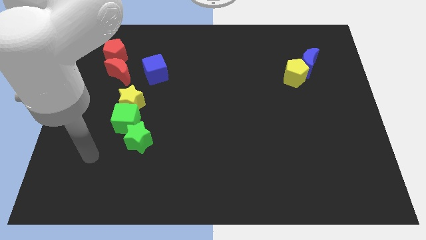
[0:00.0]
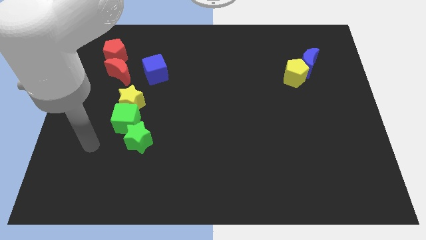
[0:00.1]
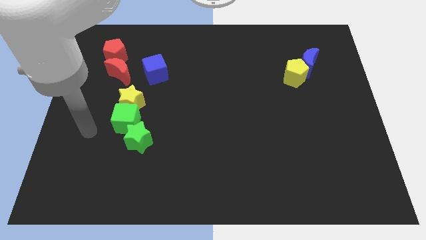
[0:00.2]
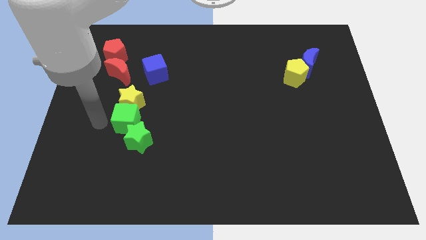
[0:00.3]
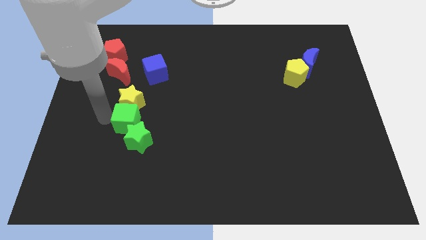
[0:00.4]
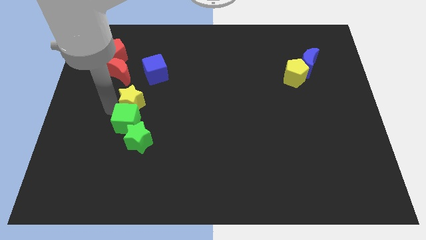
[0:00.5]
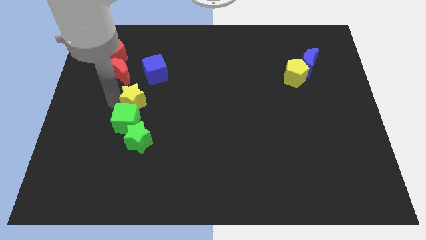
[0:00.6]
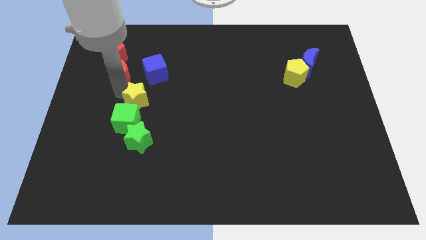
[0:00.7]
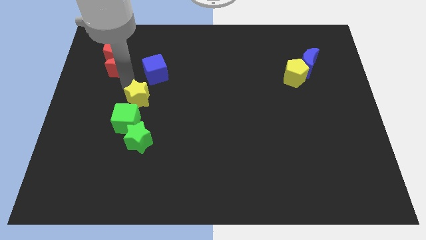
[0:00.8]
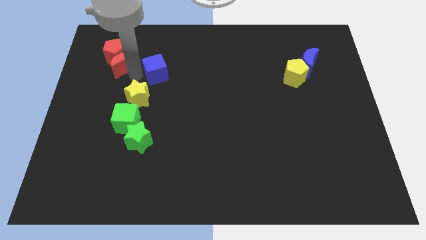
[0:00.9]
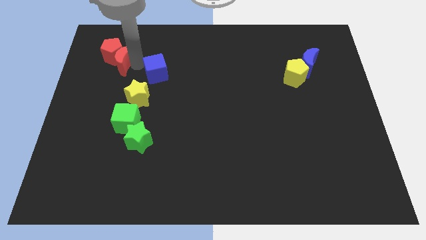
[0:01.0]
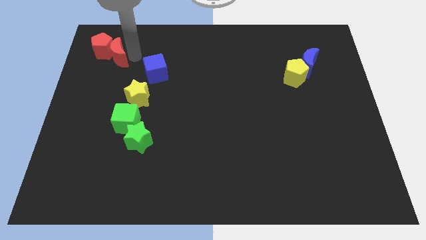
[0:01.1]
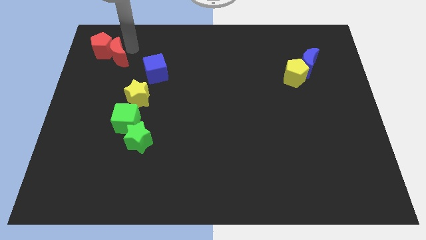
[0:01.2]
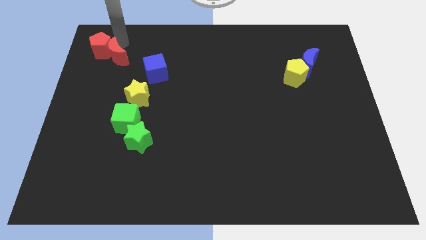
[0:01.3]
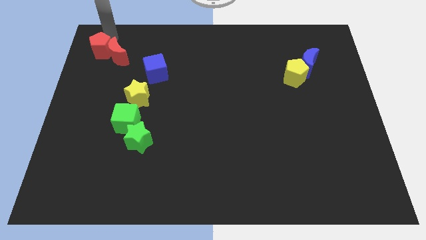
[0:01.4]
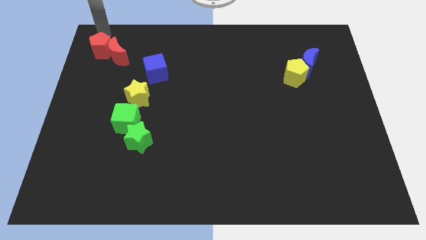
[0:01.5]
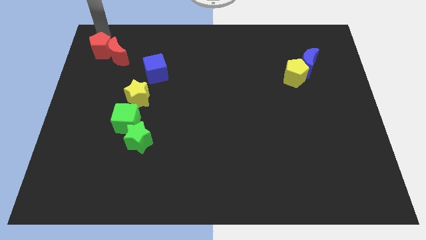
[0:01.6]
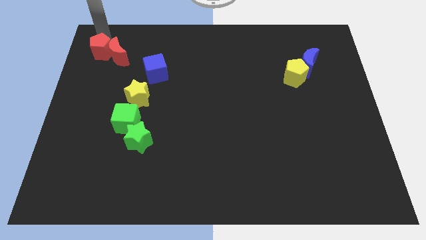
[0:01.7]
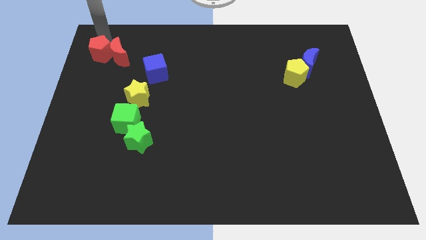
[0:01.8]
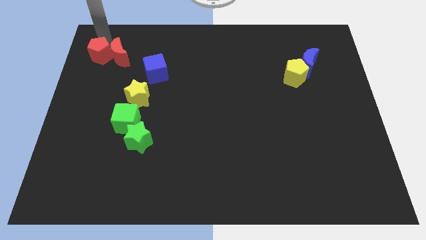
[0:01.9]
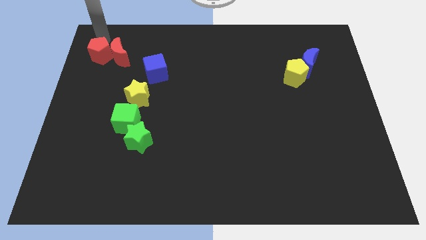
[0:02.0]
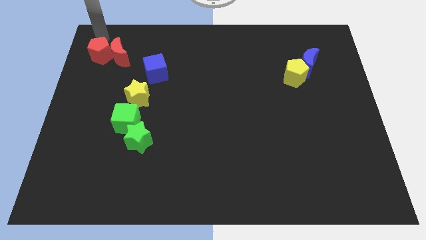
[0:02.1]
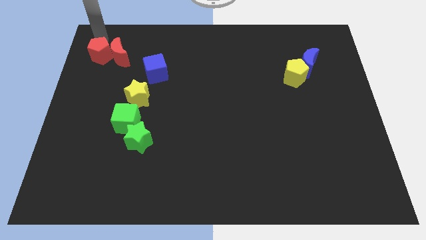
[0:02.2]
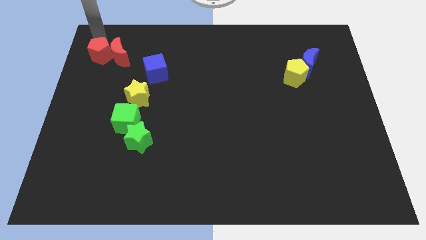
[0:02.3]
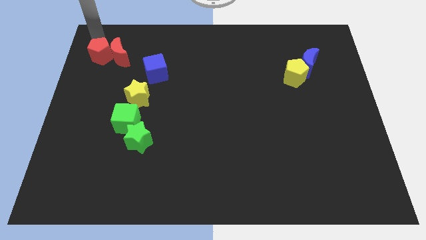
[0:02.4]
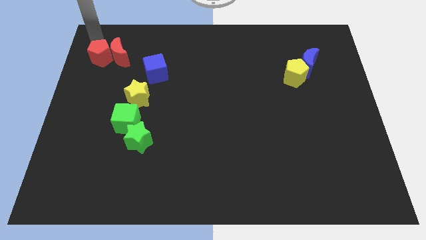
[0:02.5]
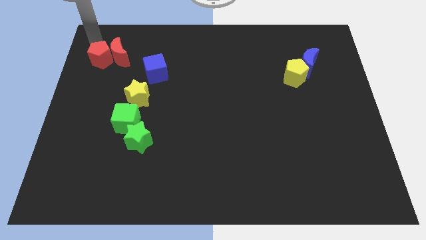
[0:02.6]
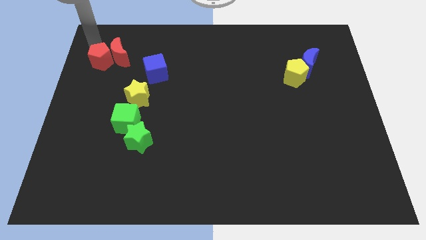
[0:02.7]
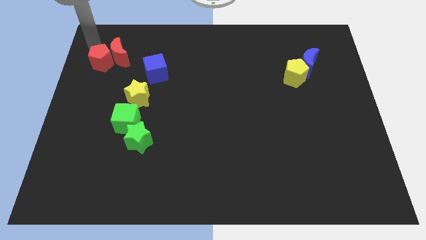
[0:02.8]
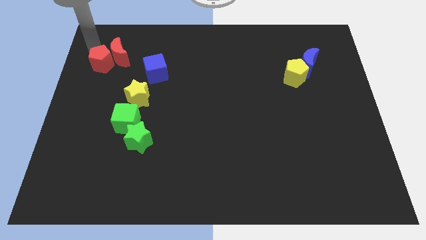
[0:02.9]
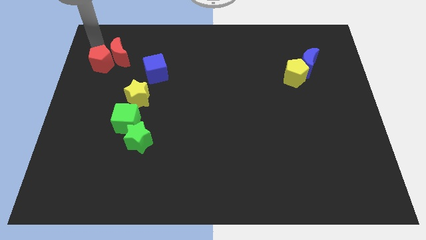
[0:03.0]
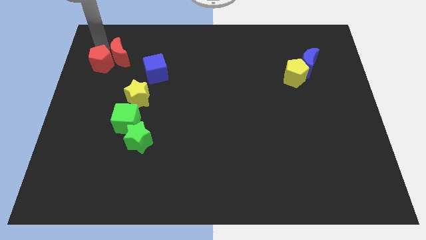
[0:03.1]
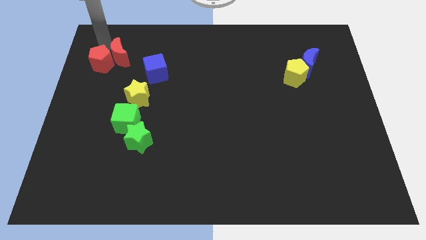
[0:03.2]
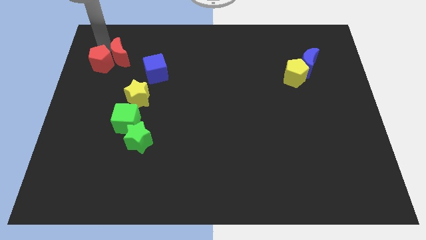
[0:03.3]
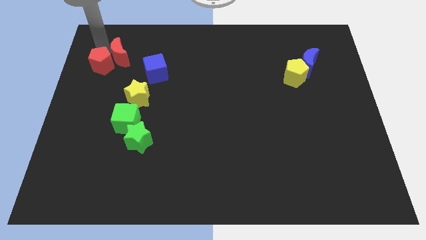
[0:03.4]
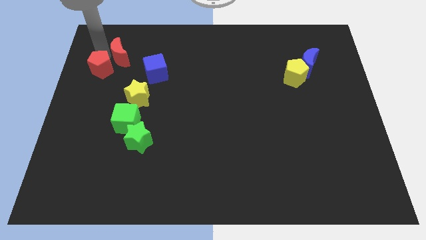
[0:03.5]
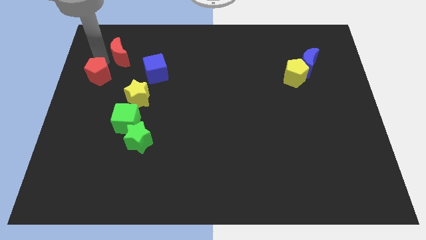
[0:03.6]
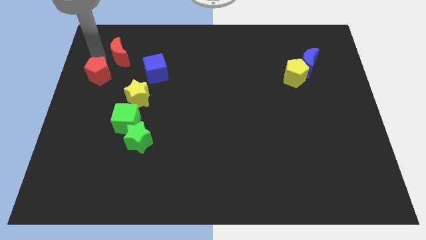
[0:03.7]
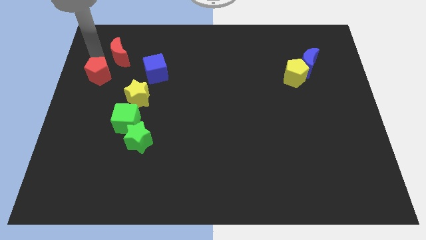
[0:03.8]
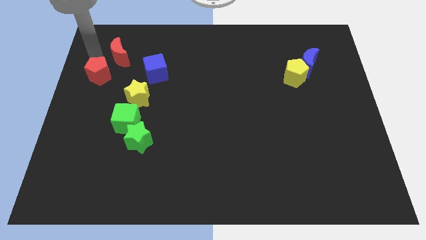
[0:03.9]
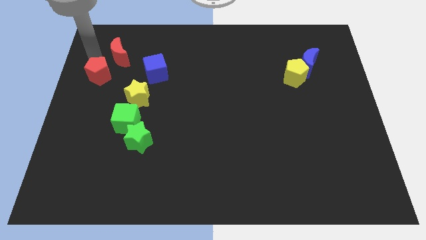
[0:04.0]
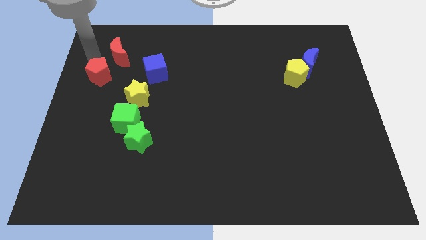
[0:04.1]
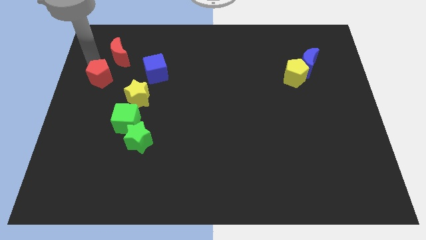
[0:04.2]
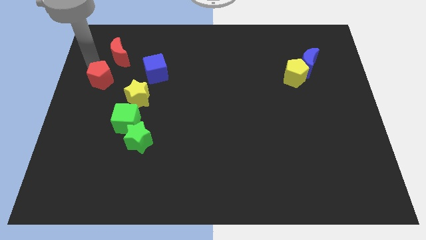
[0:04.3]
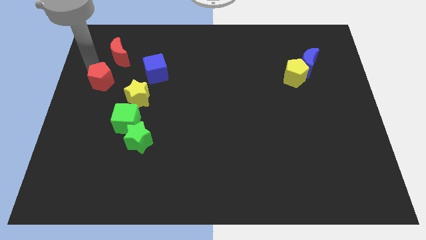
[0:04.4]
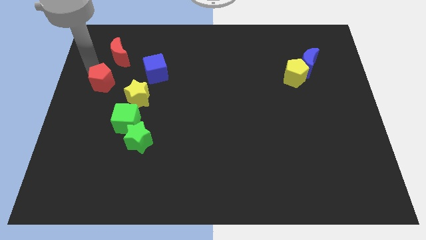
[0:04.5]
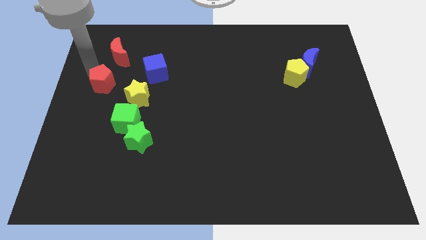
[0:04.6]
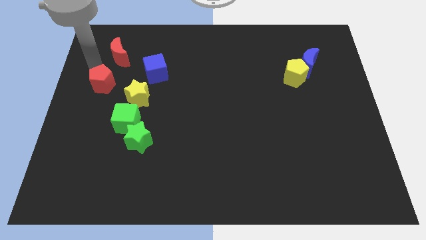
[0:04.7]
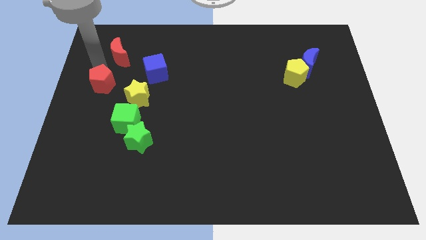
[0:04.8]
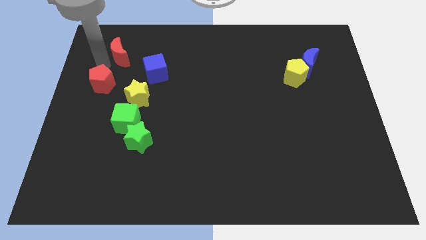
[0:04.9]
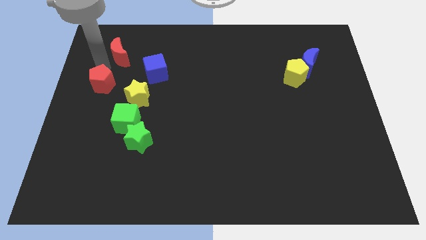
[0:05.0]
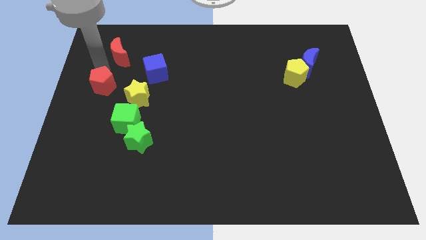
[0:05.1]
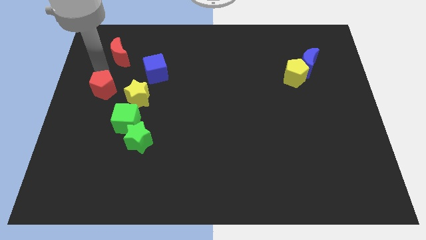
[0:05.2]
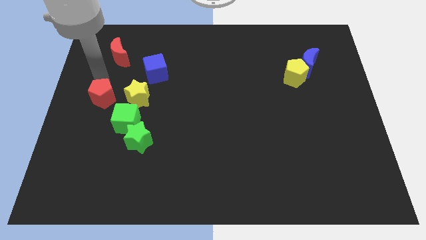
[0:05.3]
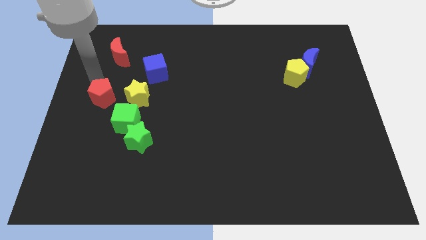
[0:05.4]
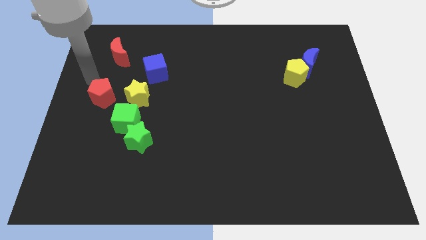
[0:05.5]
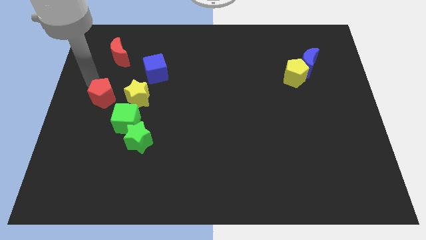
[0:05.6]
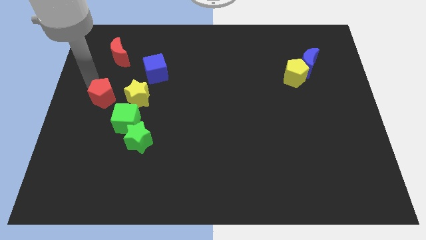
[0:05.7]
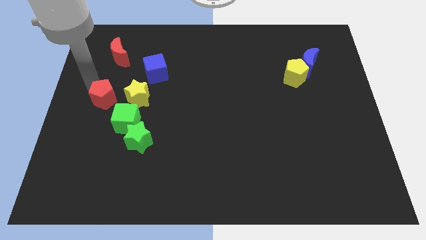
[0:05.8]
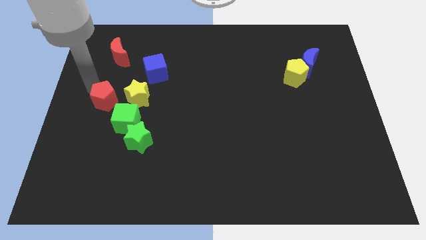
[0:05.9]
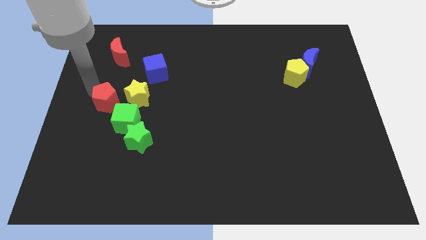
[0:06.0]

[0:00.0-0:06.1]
push the red pentagon diagonally down and to the left of the yellow star

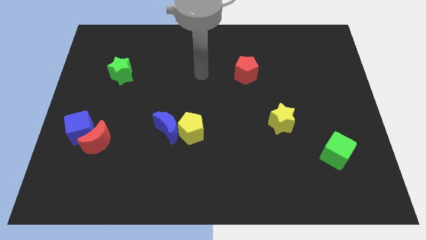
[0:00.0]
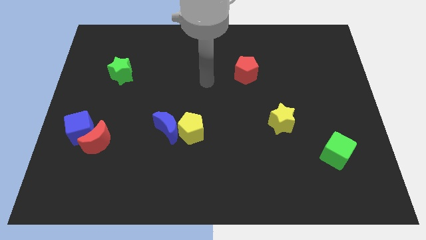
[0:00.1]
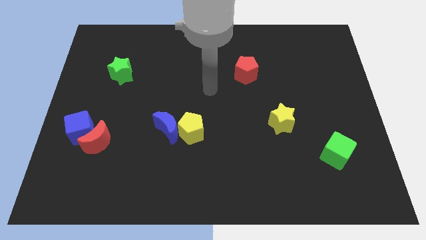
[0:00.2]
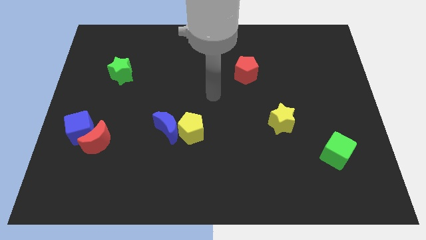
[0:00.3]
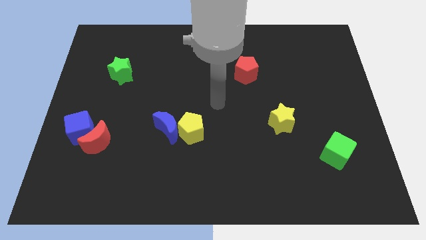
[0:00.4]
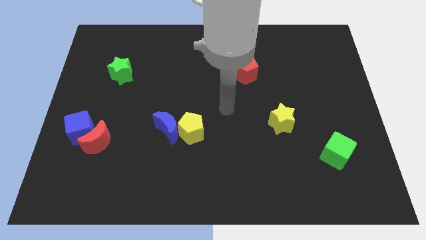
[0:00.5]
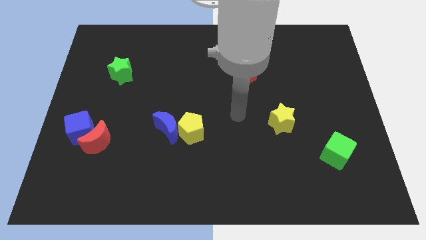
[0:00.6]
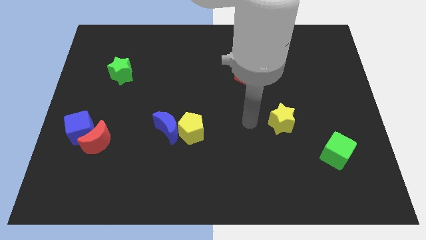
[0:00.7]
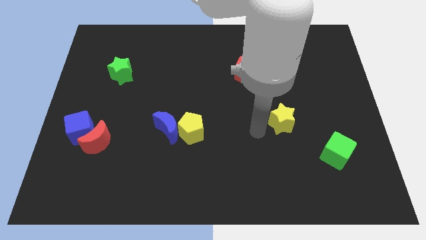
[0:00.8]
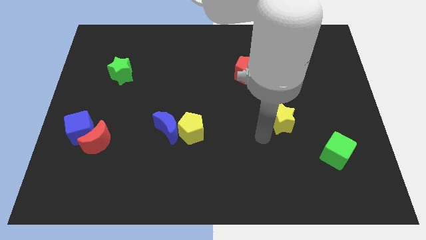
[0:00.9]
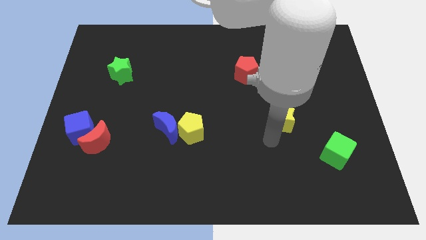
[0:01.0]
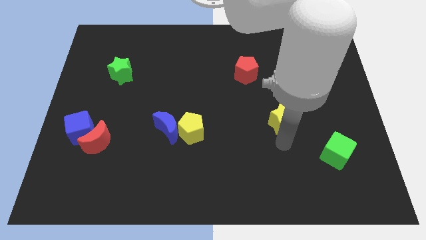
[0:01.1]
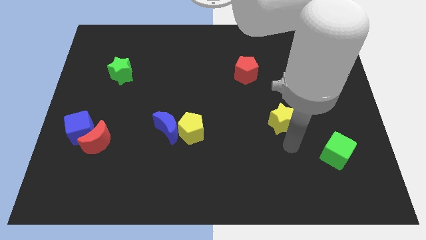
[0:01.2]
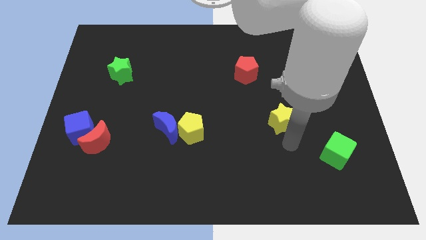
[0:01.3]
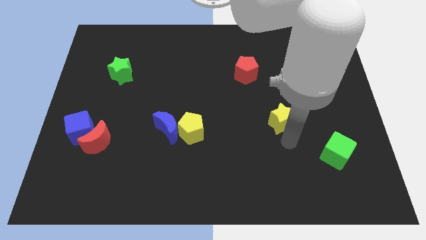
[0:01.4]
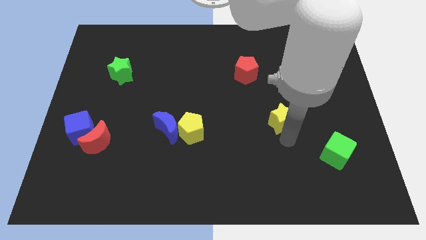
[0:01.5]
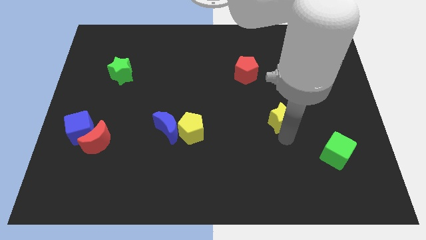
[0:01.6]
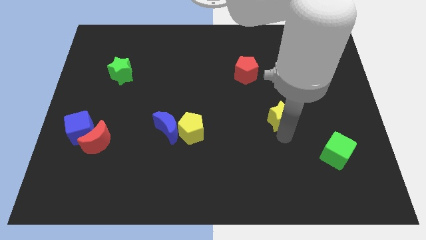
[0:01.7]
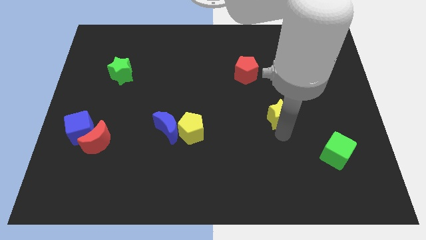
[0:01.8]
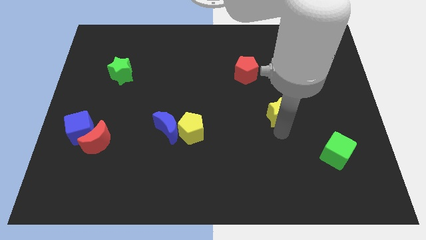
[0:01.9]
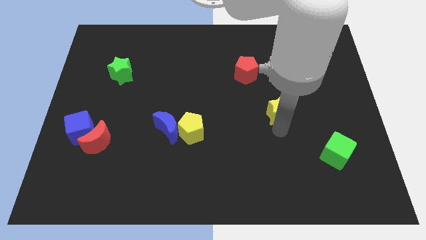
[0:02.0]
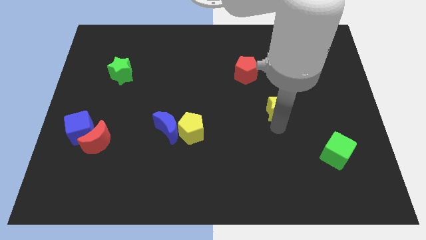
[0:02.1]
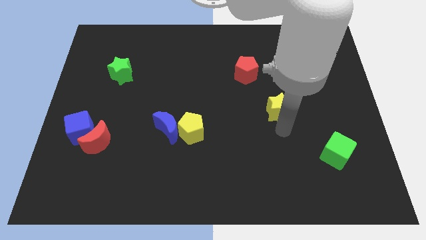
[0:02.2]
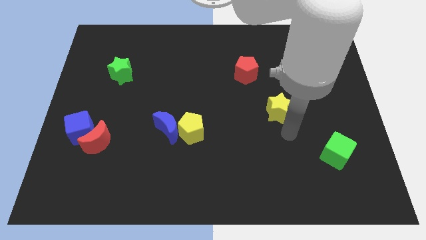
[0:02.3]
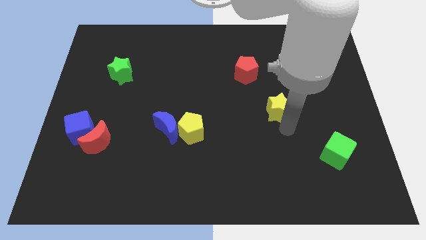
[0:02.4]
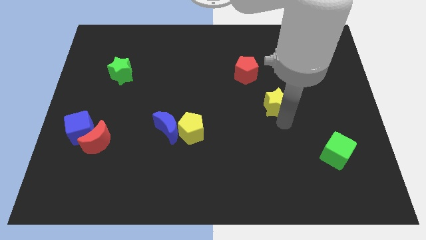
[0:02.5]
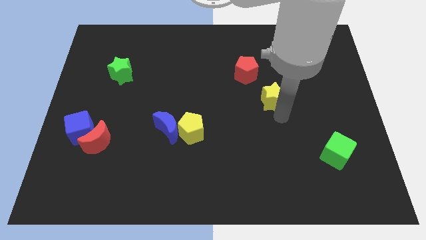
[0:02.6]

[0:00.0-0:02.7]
put the yellow star to the bottom right side of the red pentagon
